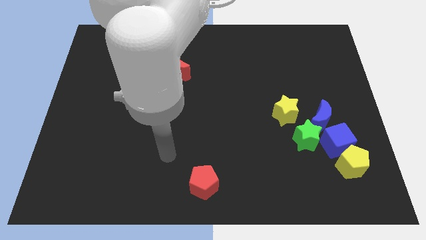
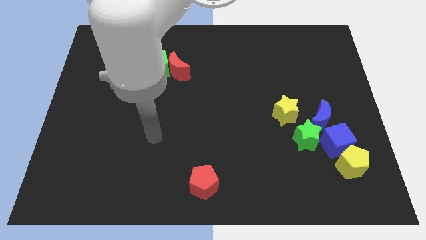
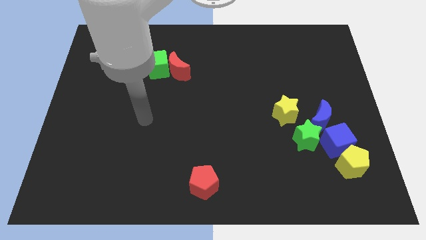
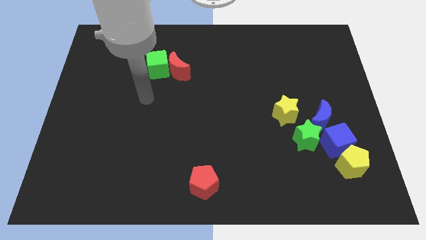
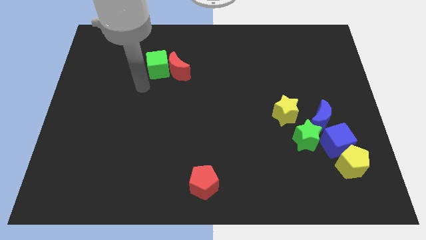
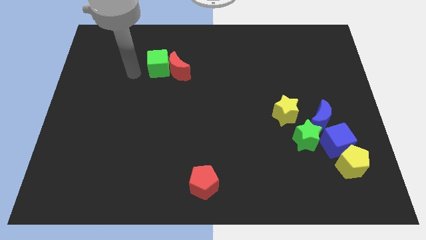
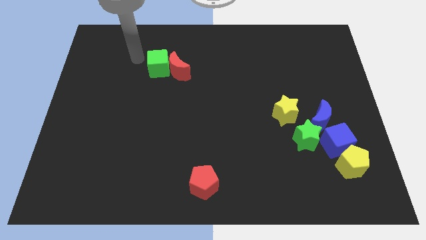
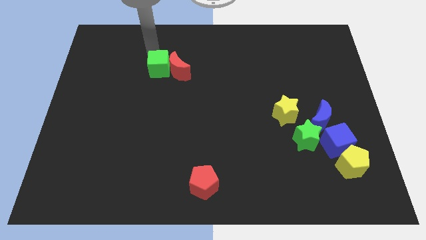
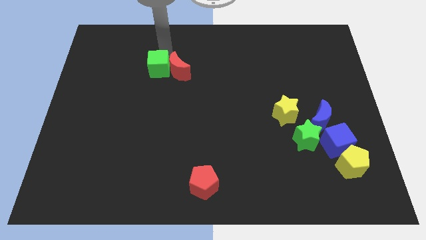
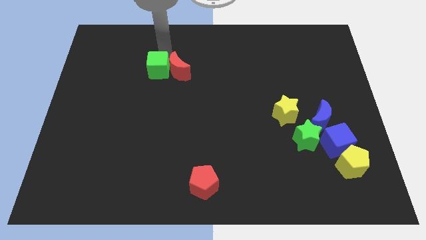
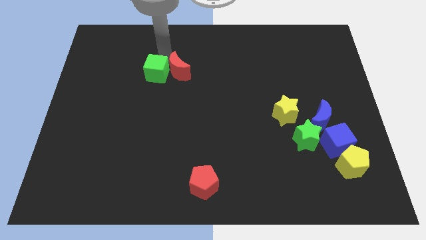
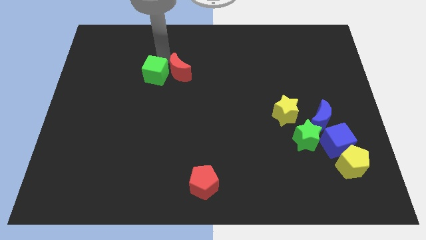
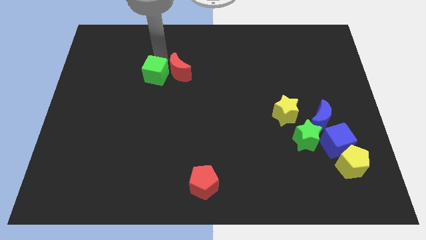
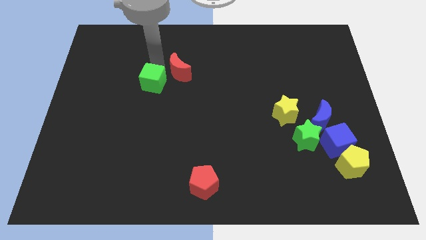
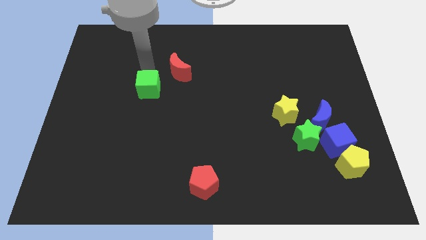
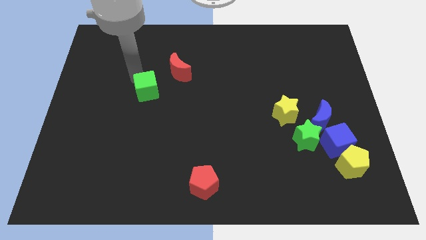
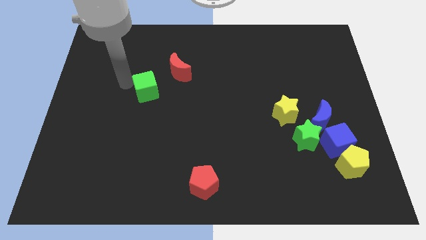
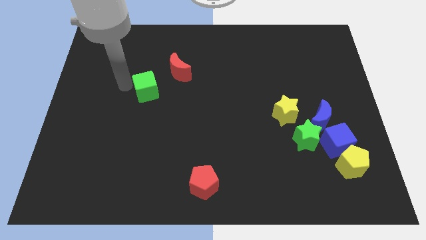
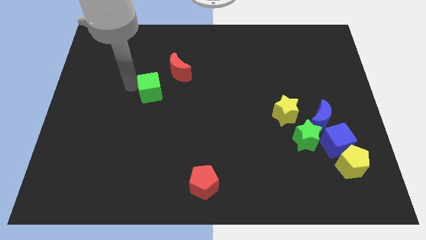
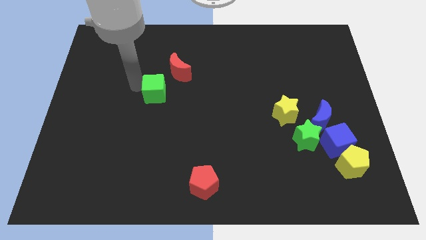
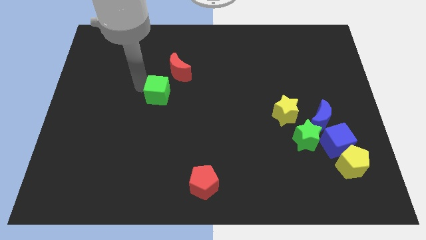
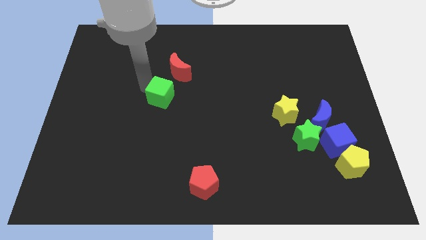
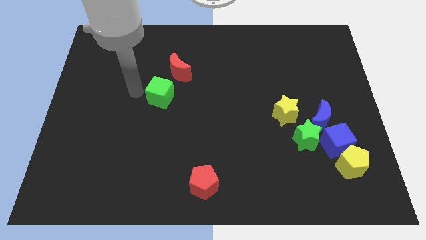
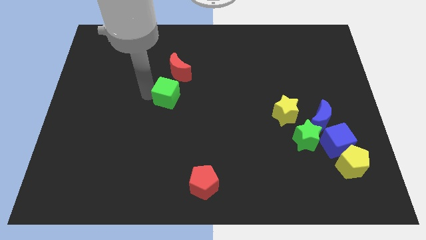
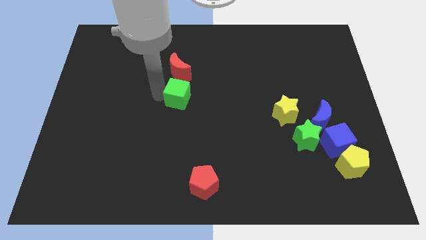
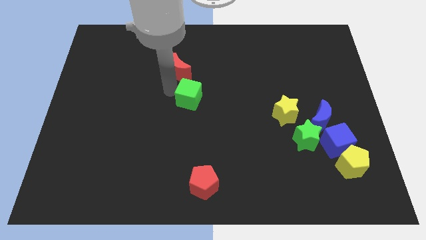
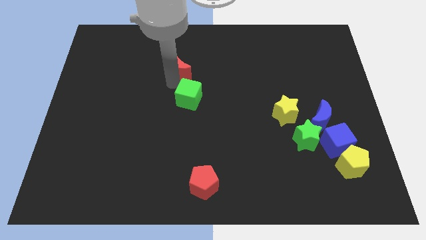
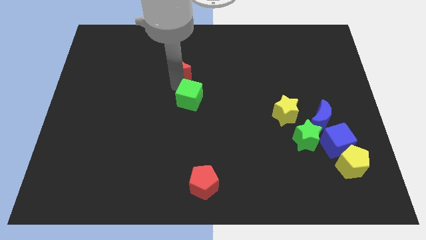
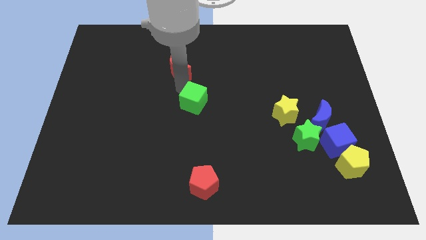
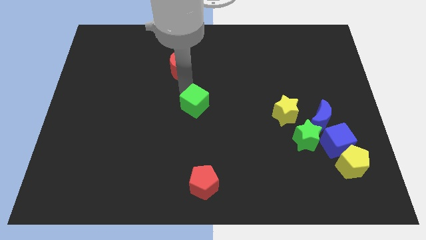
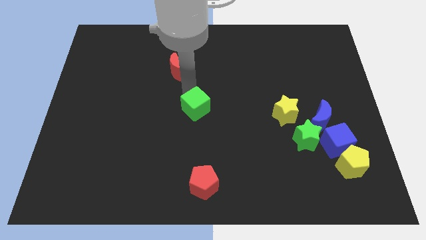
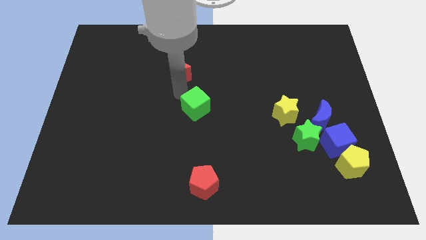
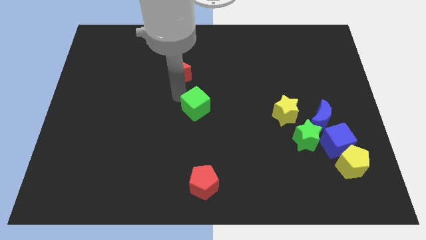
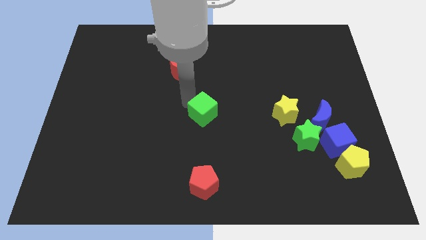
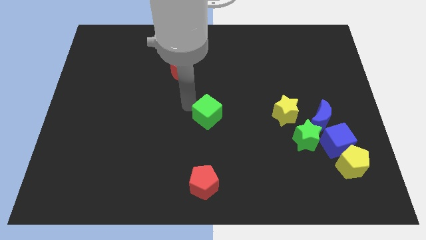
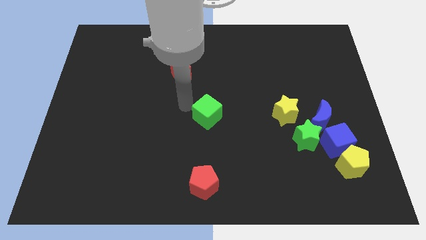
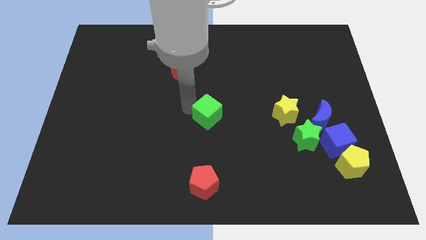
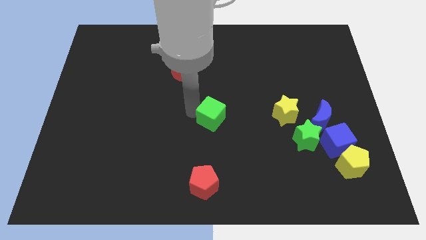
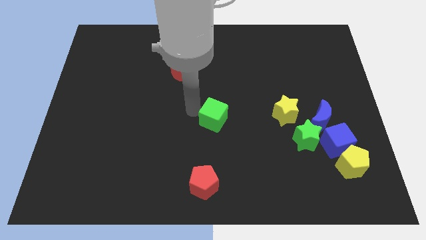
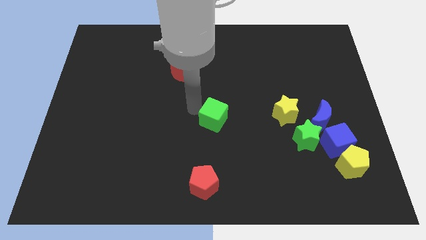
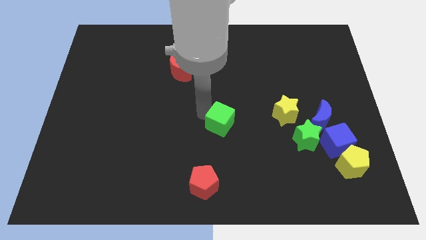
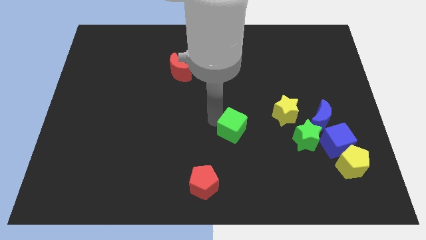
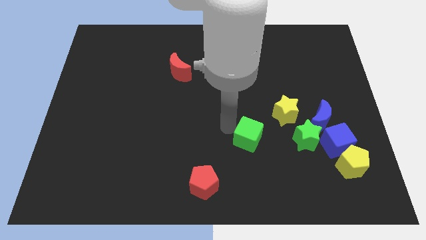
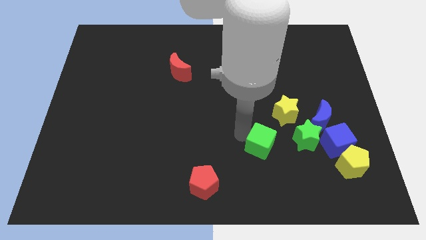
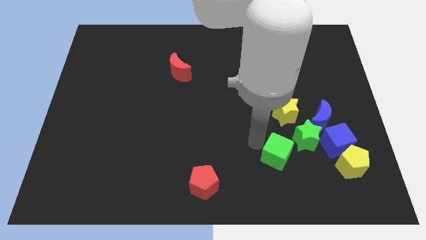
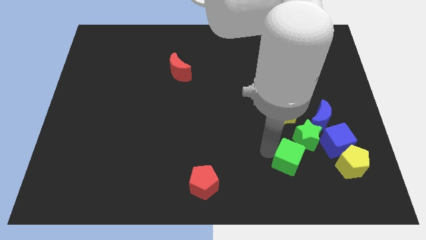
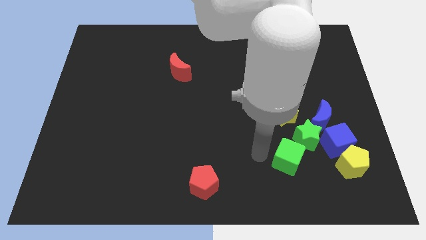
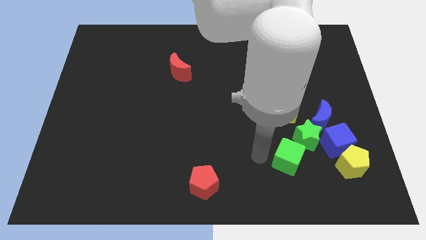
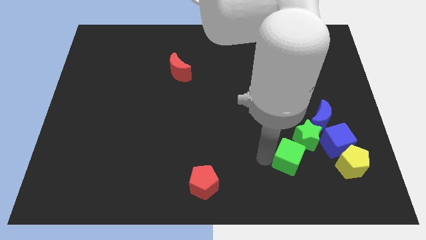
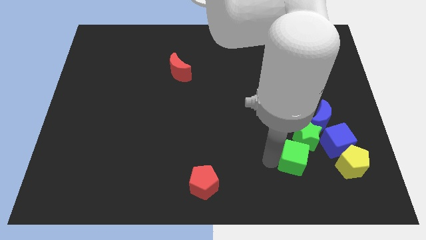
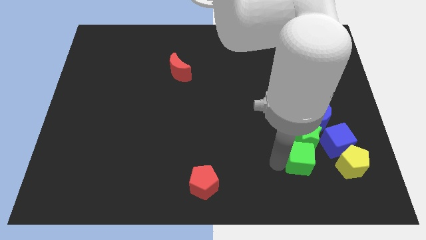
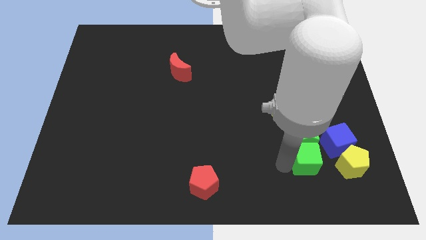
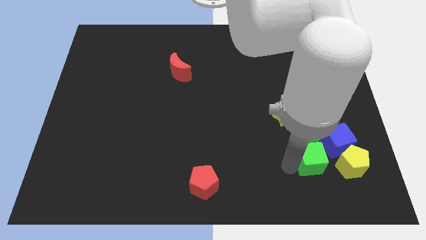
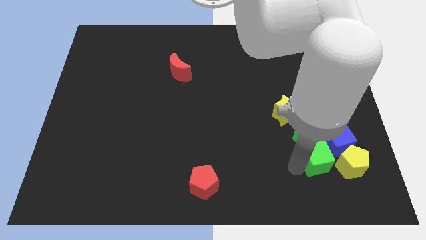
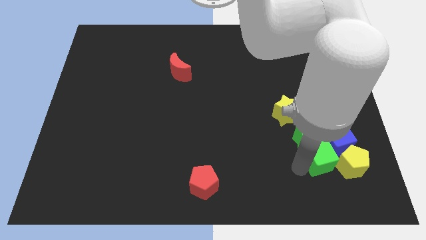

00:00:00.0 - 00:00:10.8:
slide the green cube next to the blue cube

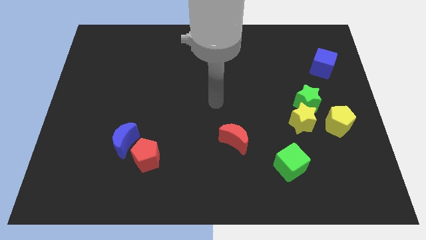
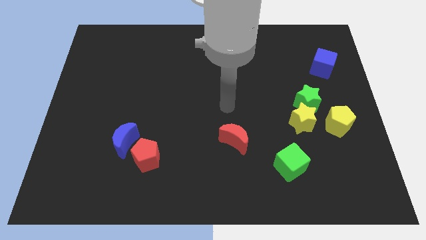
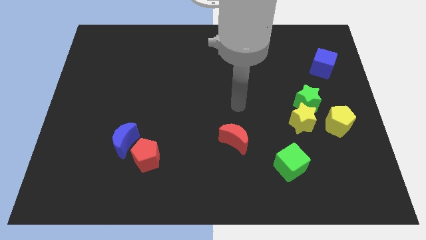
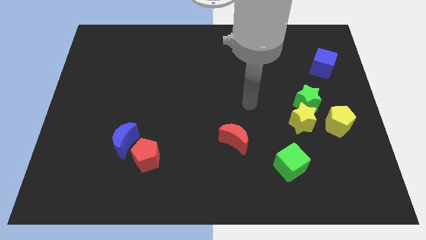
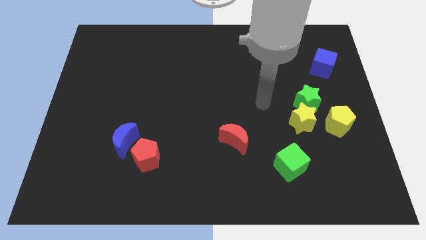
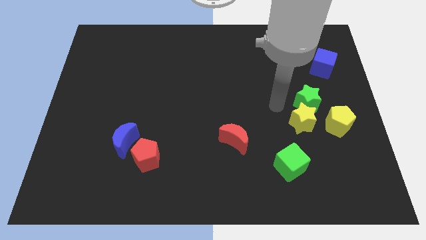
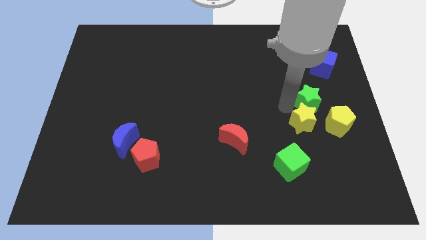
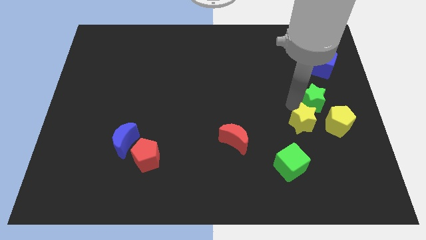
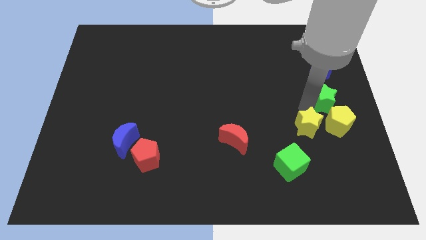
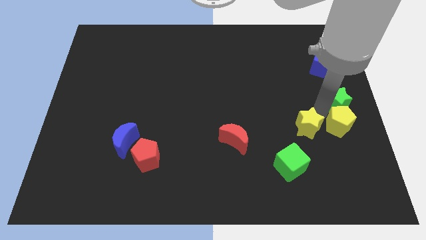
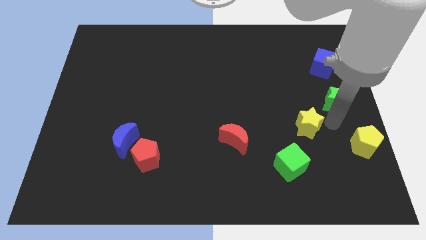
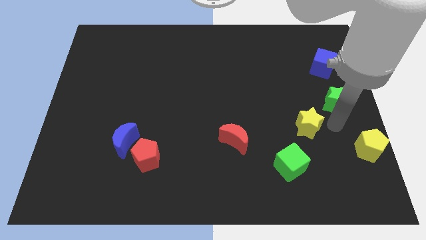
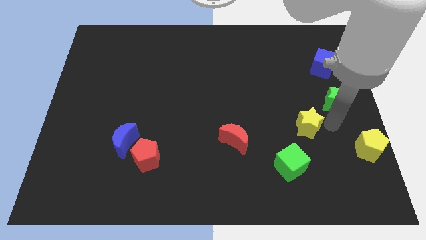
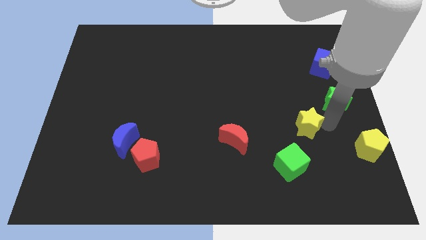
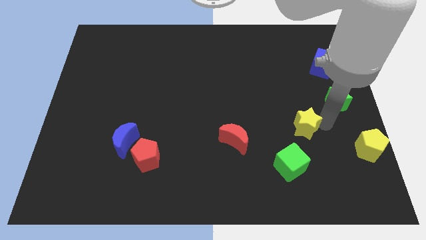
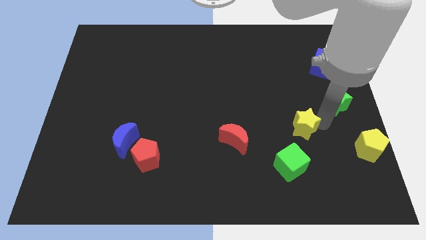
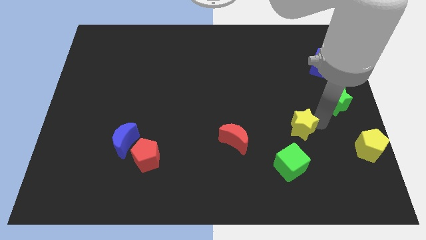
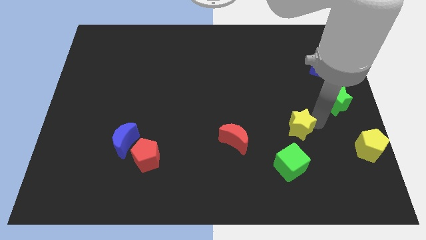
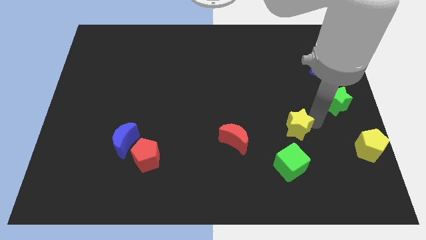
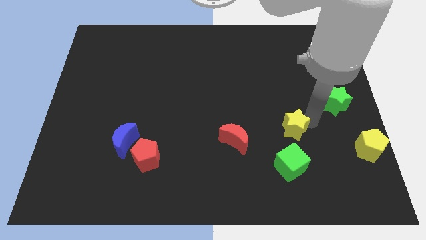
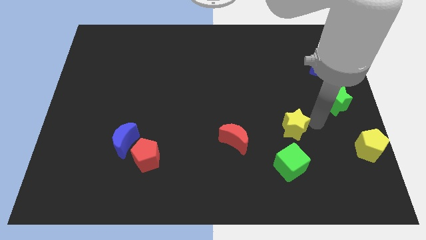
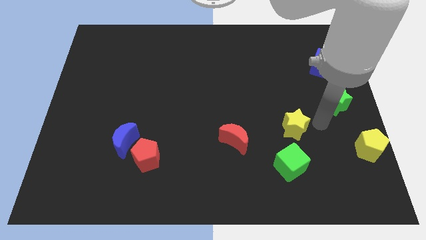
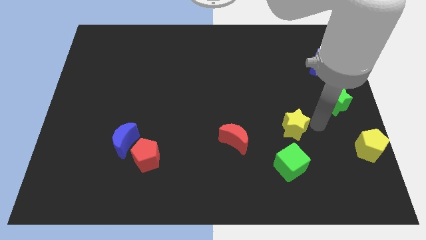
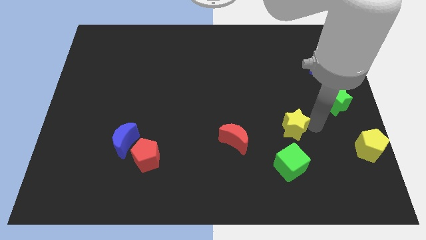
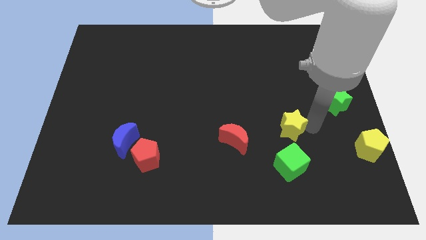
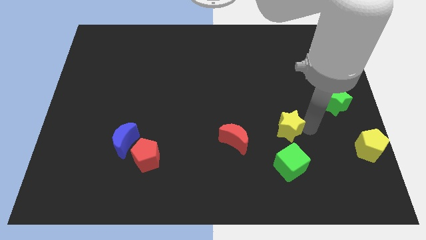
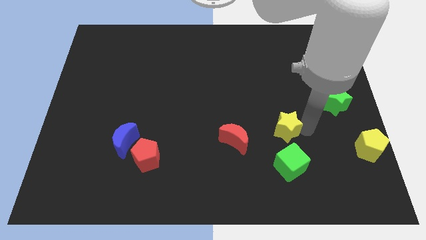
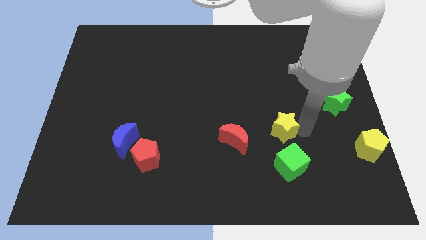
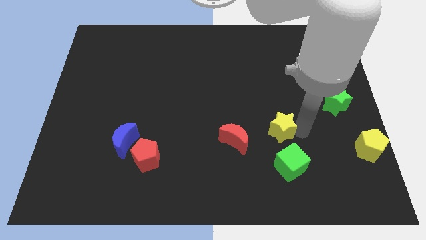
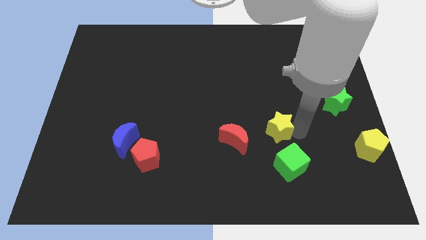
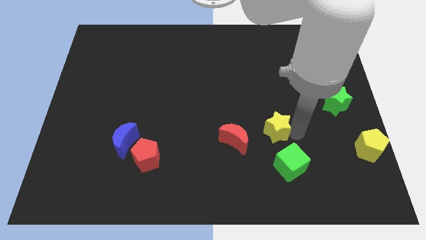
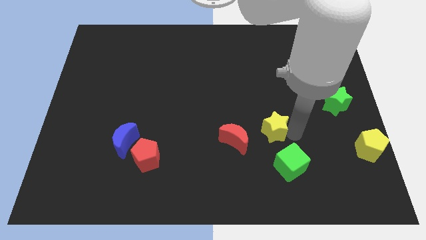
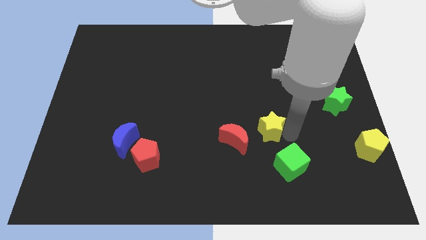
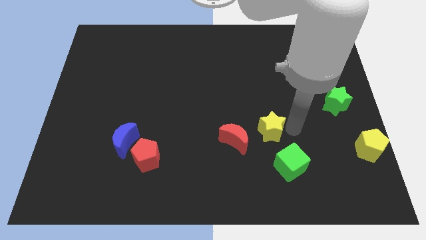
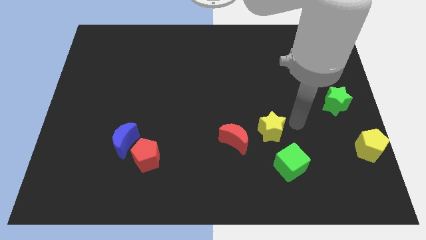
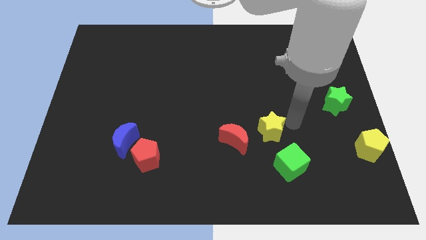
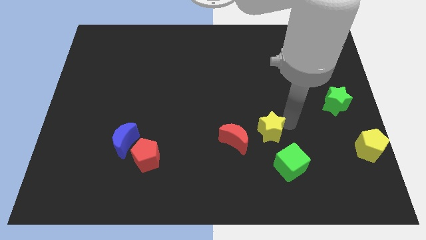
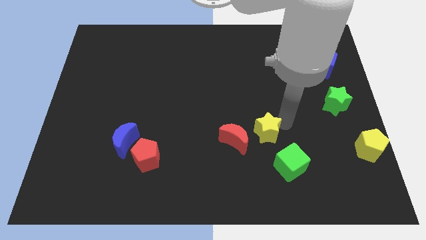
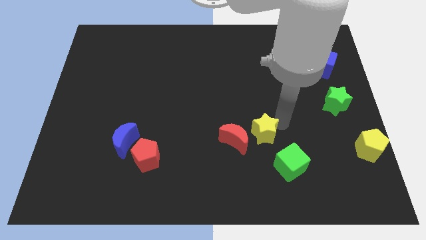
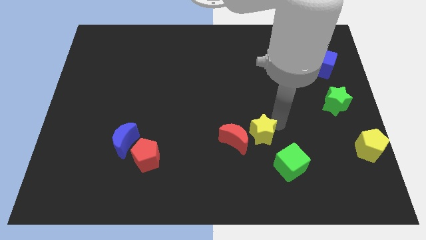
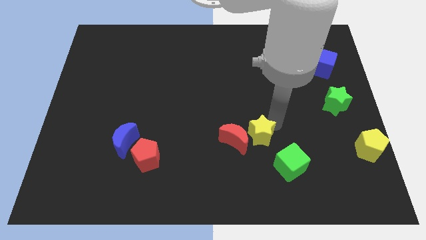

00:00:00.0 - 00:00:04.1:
slide the yellow star close to the red moon
